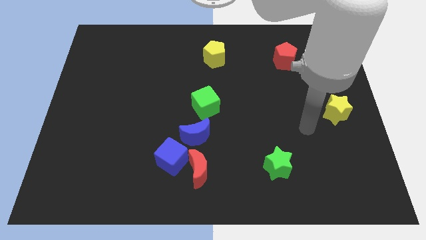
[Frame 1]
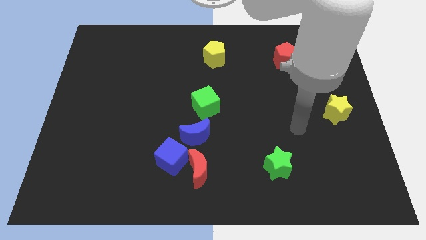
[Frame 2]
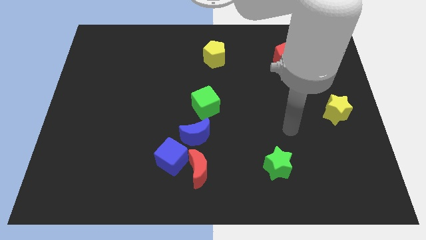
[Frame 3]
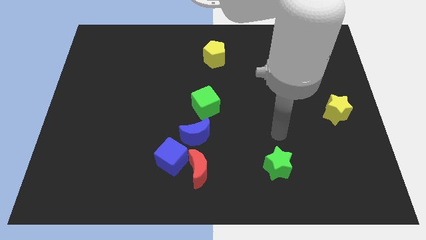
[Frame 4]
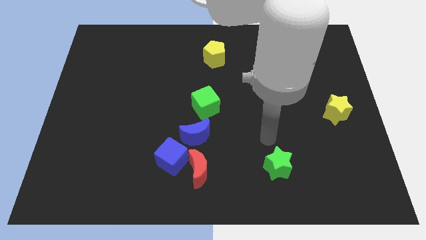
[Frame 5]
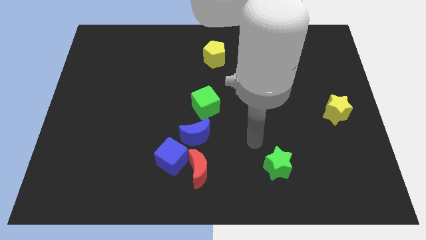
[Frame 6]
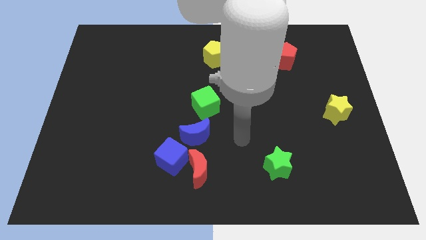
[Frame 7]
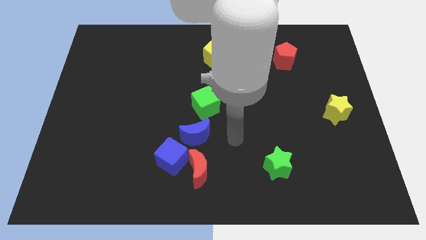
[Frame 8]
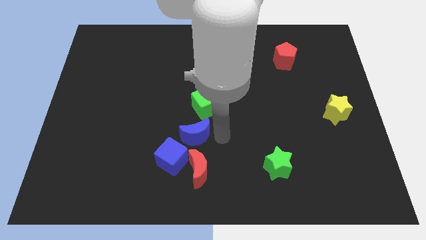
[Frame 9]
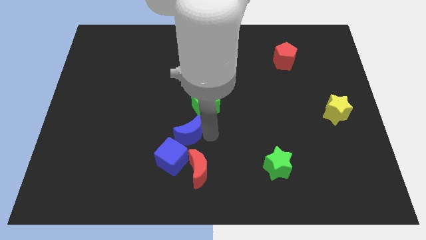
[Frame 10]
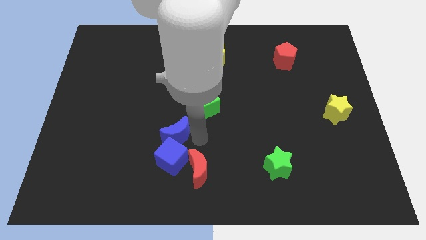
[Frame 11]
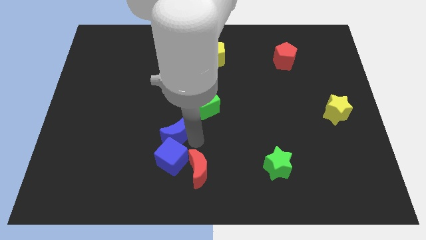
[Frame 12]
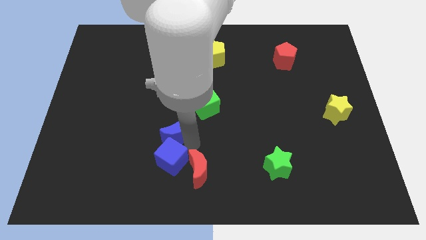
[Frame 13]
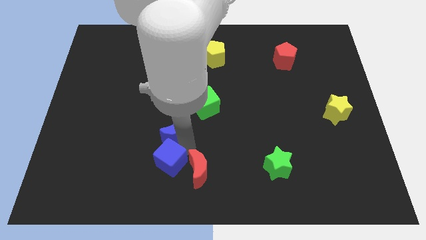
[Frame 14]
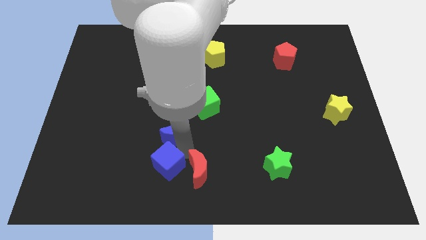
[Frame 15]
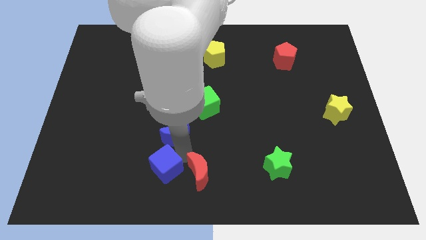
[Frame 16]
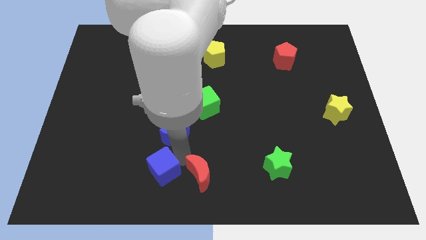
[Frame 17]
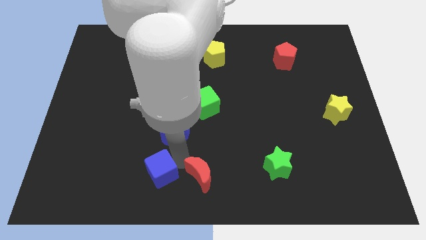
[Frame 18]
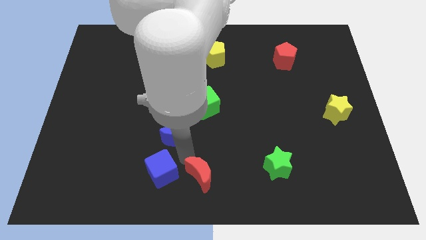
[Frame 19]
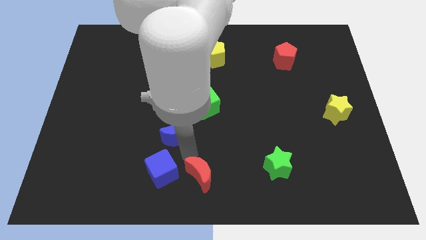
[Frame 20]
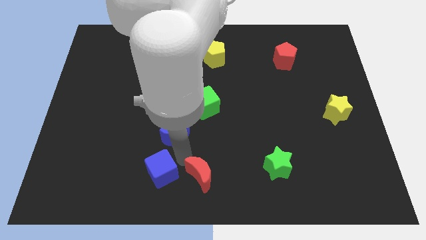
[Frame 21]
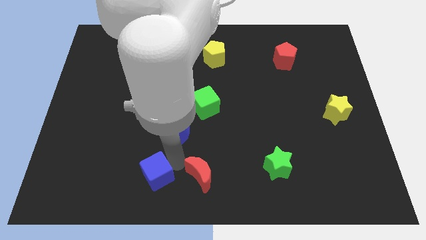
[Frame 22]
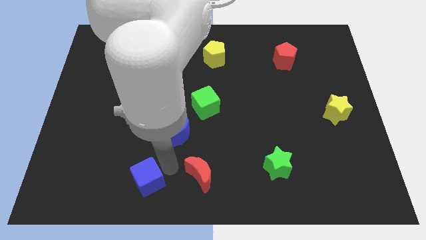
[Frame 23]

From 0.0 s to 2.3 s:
separate the blue cube from the red moon and blue moon

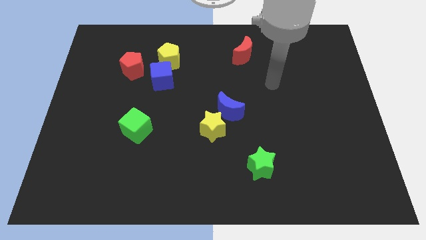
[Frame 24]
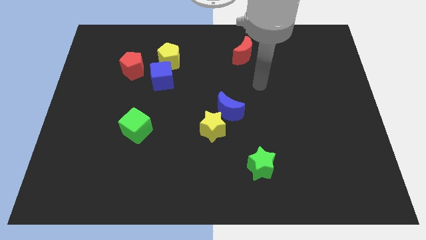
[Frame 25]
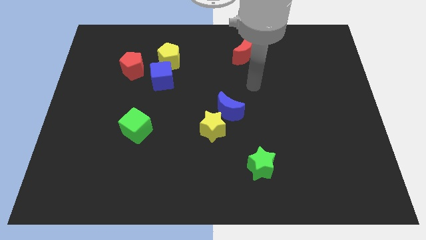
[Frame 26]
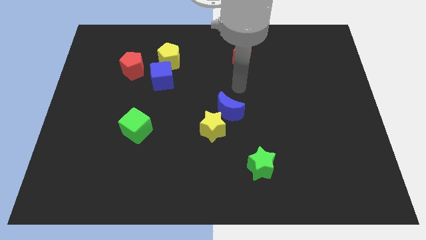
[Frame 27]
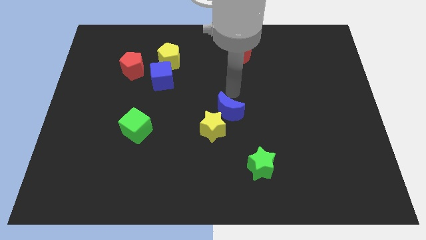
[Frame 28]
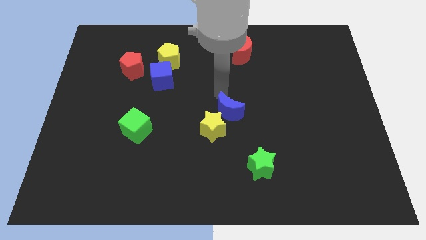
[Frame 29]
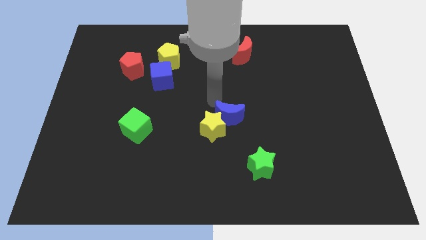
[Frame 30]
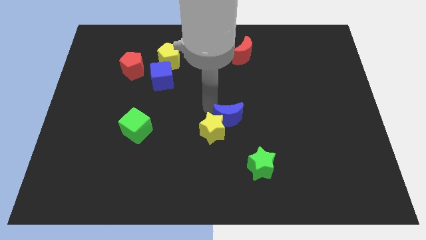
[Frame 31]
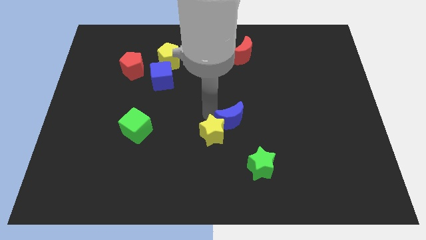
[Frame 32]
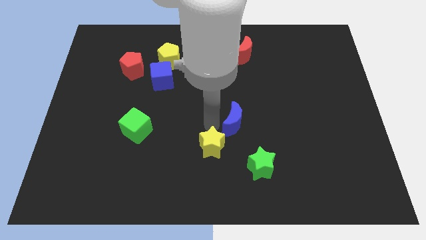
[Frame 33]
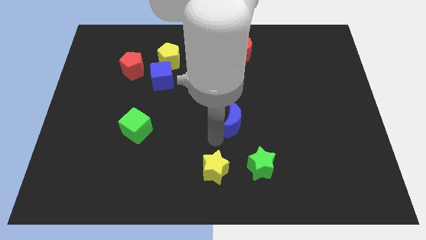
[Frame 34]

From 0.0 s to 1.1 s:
separate the blue moon from the yellow star

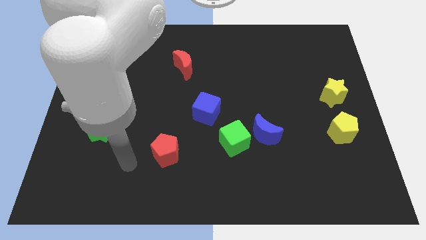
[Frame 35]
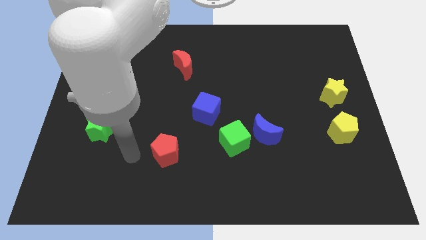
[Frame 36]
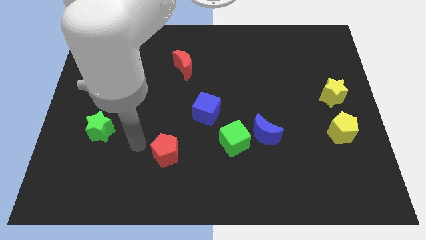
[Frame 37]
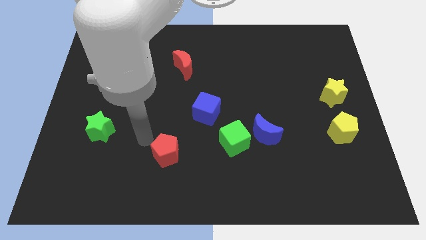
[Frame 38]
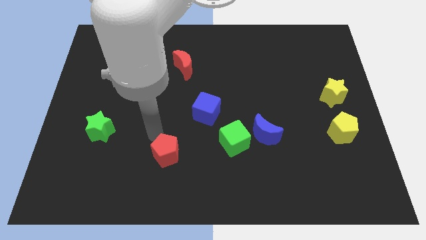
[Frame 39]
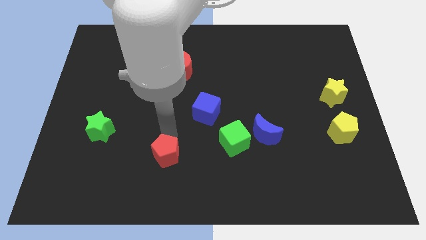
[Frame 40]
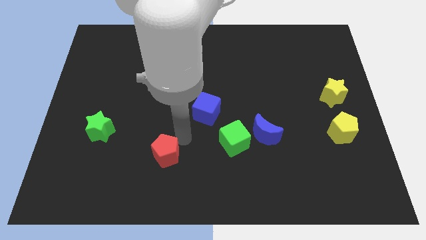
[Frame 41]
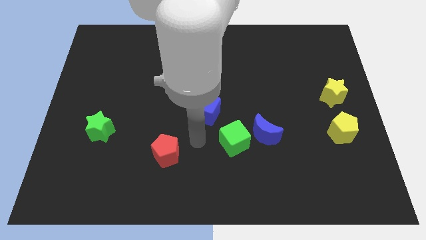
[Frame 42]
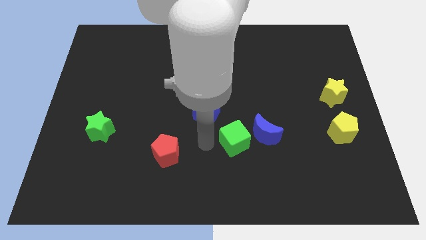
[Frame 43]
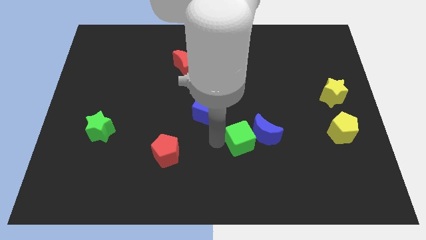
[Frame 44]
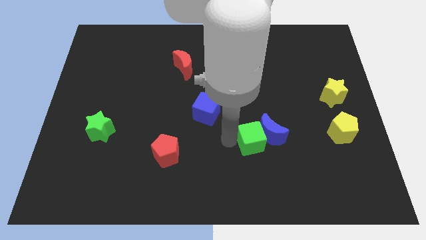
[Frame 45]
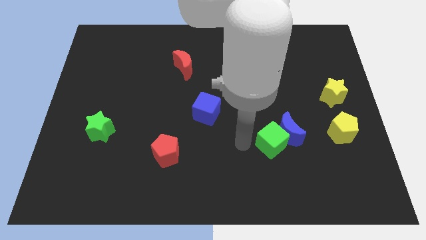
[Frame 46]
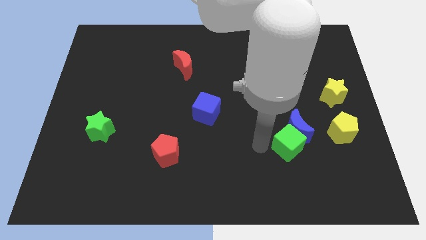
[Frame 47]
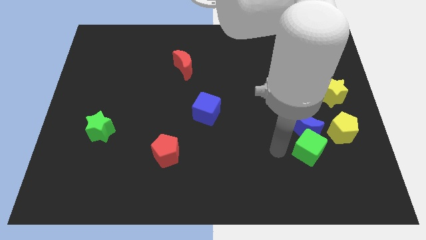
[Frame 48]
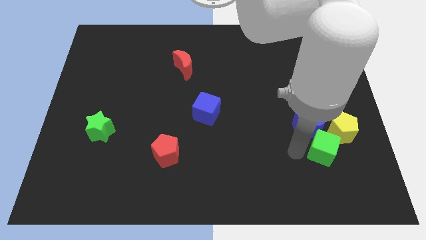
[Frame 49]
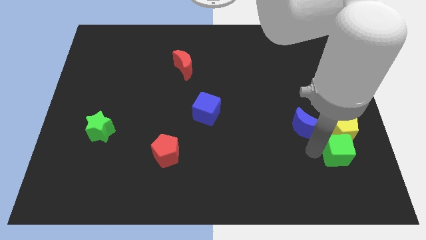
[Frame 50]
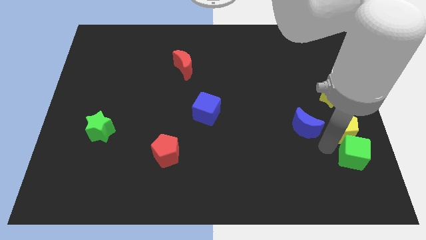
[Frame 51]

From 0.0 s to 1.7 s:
move the blue moon away from the green cube

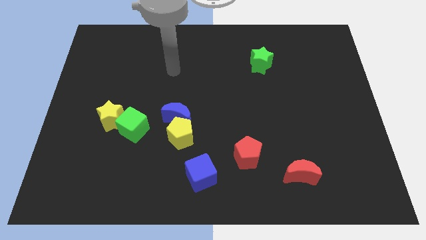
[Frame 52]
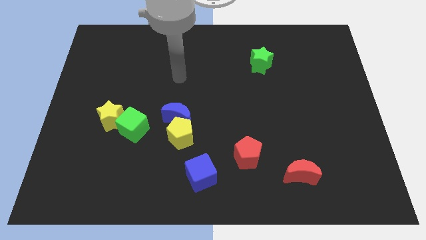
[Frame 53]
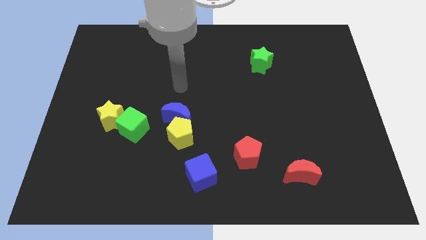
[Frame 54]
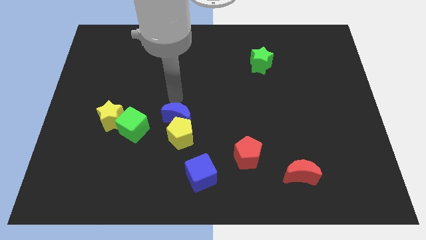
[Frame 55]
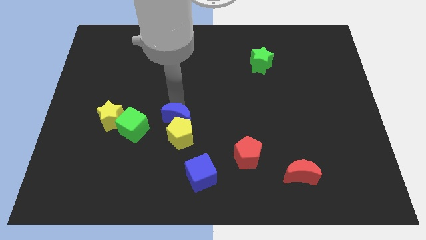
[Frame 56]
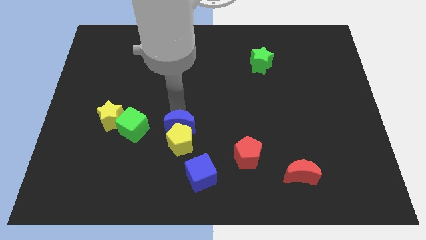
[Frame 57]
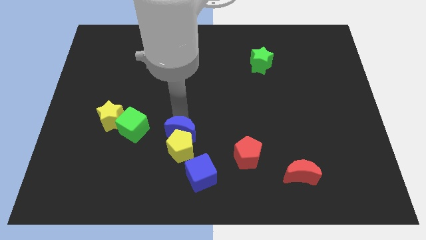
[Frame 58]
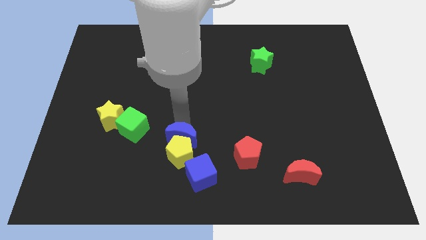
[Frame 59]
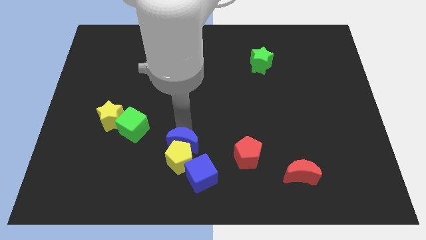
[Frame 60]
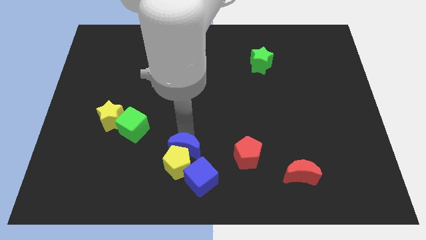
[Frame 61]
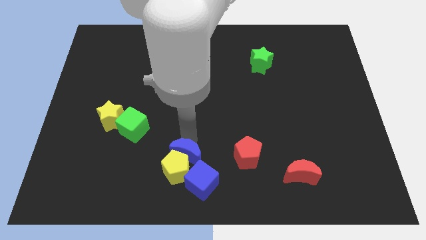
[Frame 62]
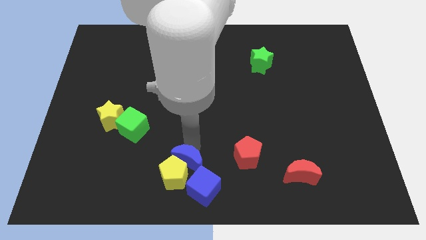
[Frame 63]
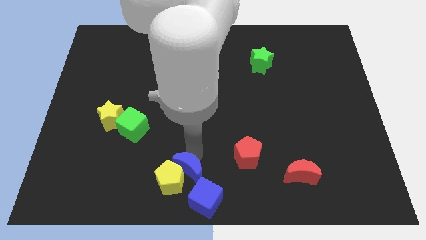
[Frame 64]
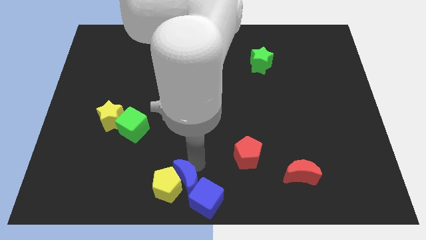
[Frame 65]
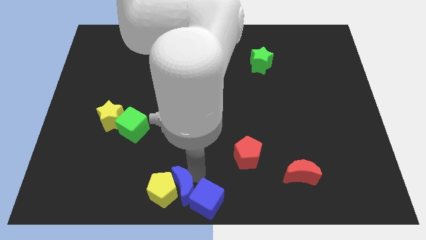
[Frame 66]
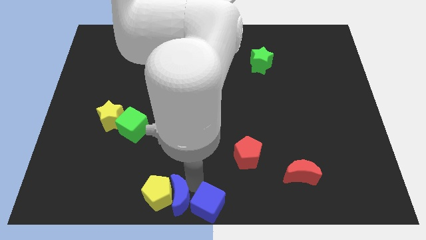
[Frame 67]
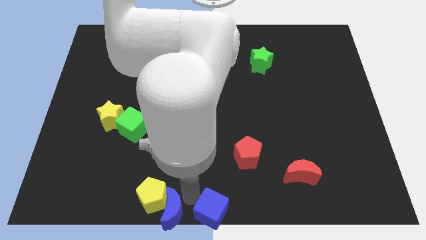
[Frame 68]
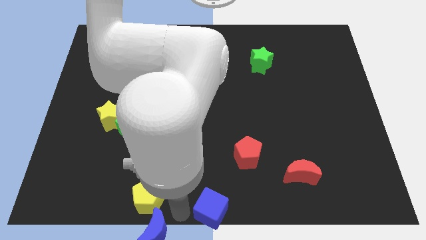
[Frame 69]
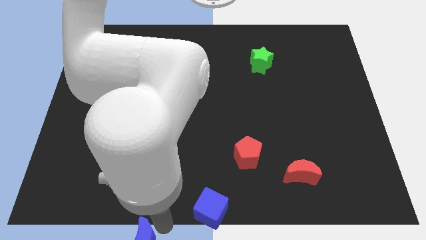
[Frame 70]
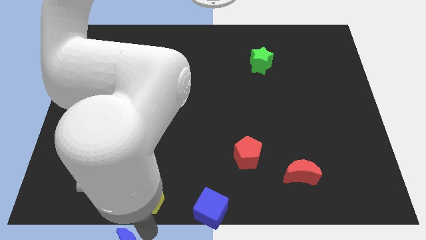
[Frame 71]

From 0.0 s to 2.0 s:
pull the yellow pentagon apart from the blue moon

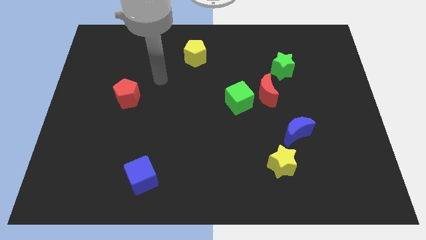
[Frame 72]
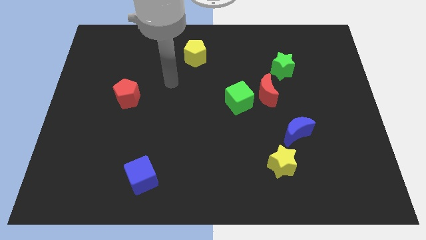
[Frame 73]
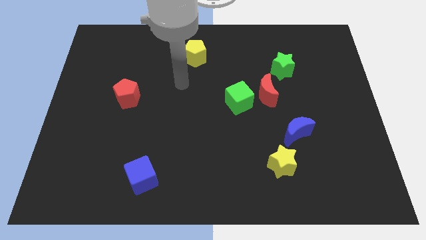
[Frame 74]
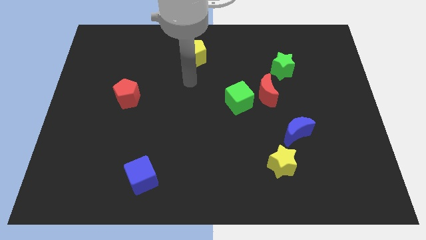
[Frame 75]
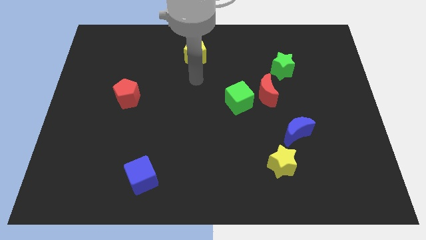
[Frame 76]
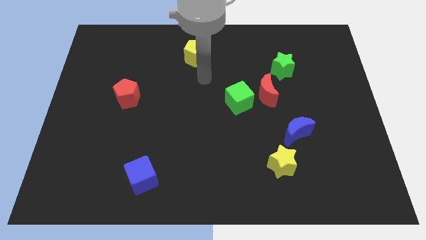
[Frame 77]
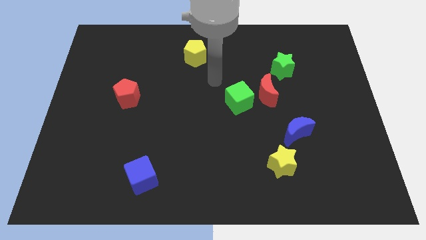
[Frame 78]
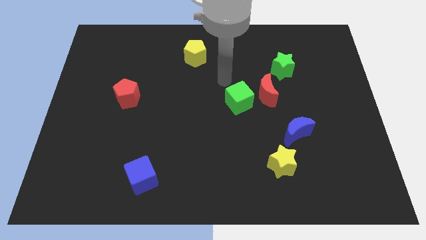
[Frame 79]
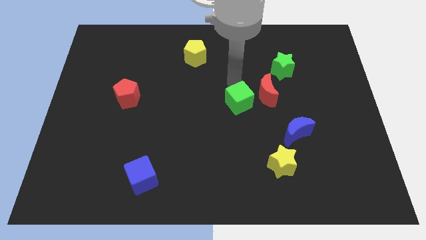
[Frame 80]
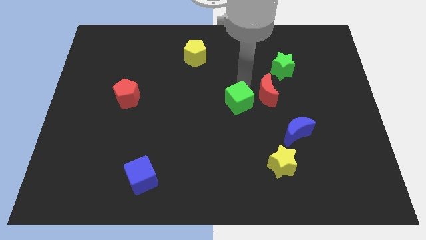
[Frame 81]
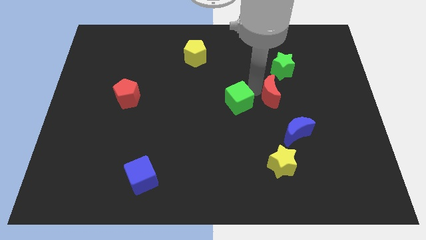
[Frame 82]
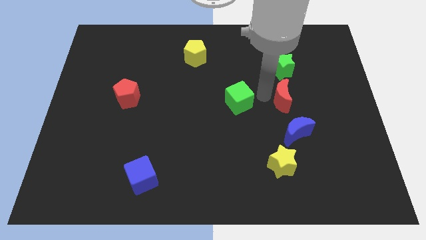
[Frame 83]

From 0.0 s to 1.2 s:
pull the green cube apart from the red moon

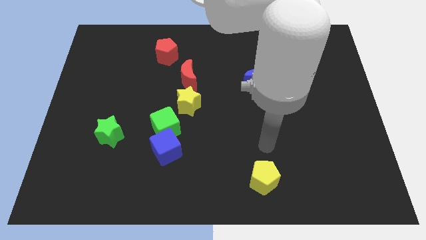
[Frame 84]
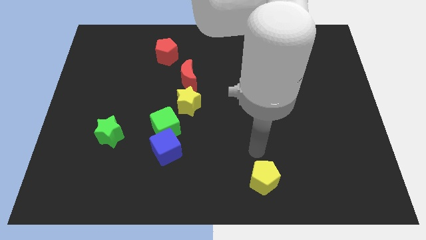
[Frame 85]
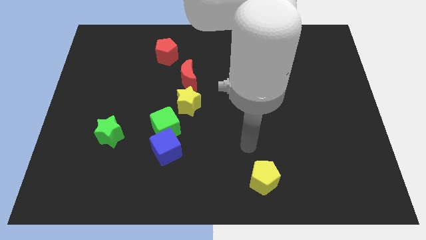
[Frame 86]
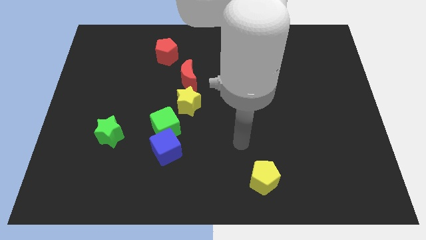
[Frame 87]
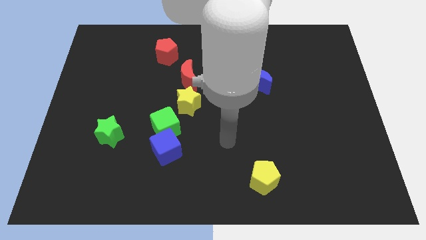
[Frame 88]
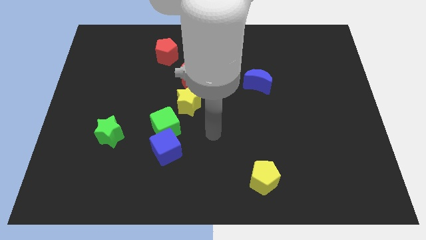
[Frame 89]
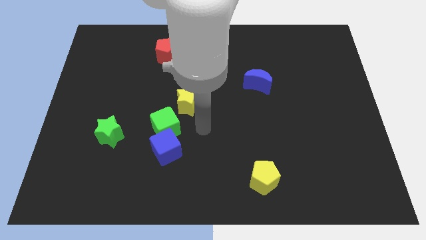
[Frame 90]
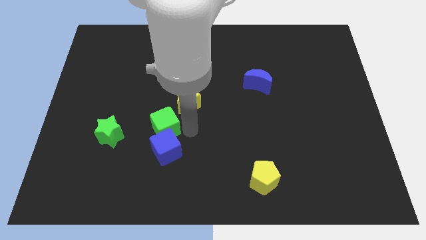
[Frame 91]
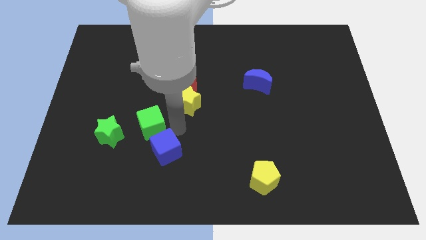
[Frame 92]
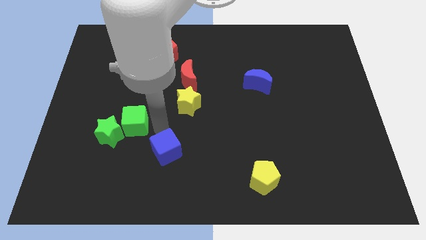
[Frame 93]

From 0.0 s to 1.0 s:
separate the blue cube from the green cube

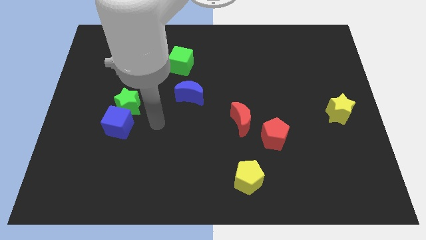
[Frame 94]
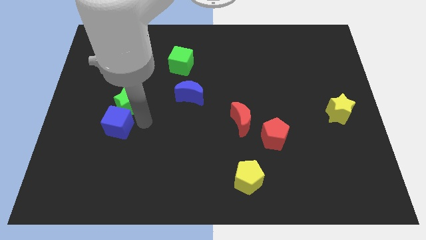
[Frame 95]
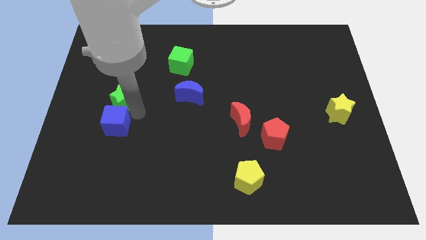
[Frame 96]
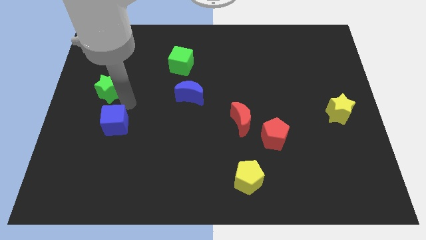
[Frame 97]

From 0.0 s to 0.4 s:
move the blue cube away from the green star
